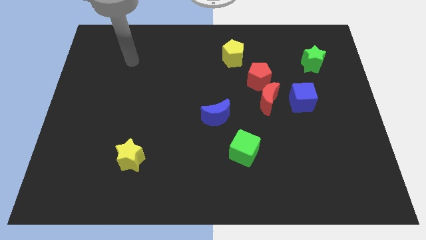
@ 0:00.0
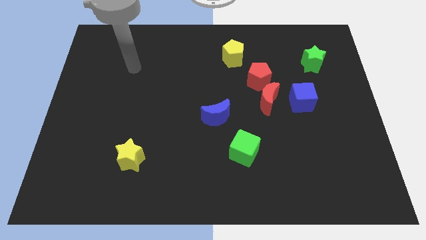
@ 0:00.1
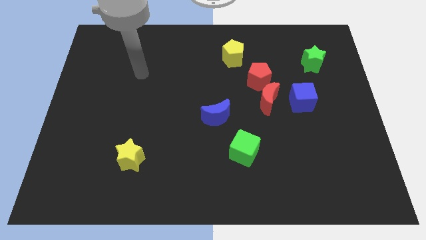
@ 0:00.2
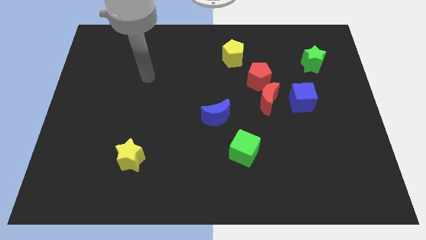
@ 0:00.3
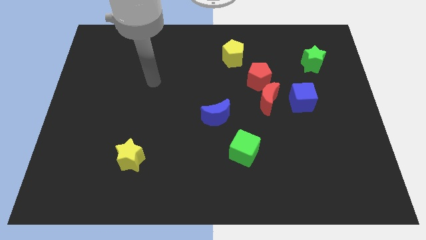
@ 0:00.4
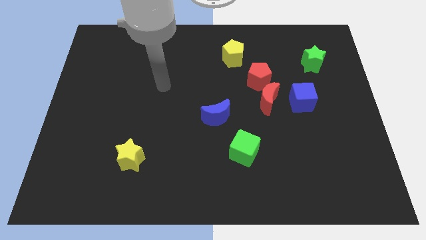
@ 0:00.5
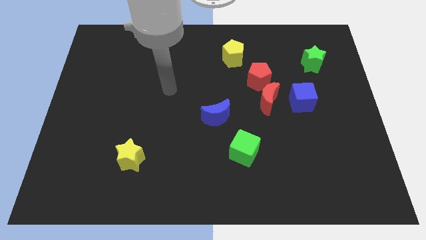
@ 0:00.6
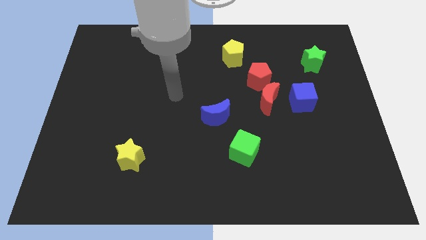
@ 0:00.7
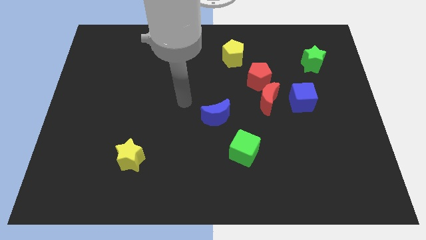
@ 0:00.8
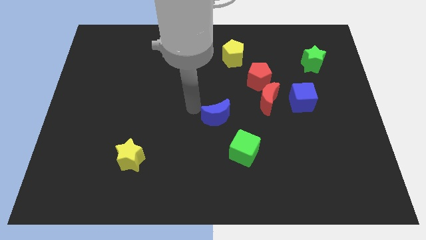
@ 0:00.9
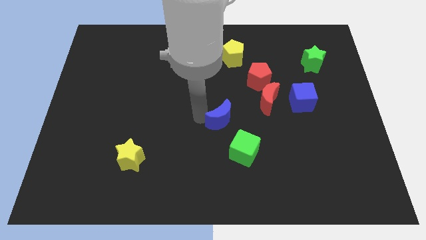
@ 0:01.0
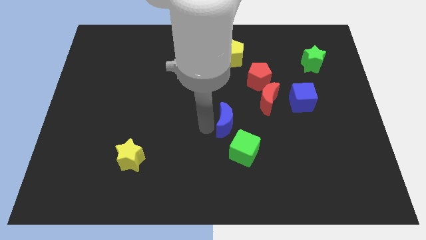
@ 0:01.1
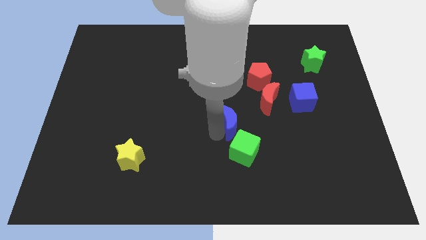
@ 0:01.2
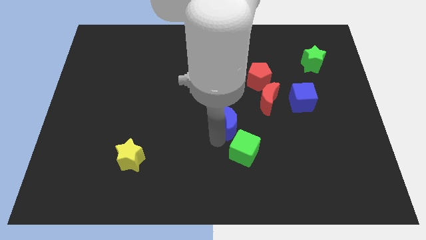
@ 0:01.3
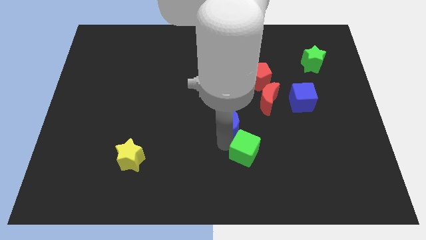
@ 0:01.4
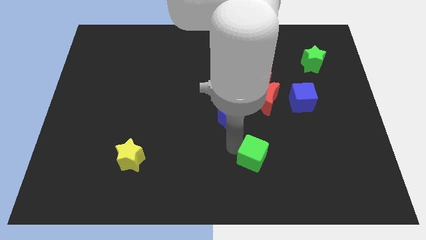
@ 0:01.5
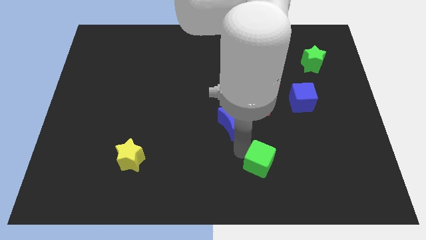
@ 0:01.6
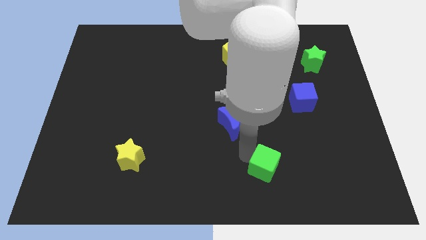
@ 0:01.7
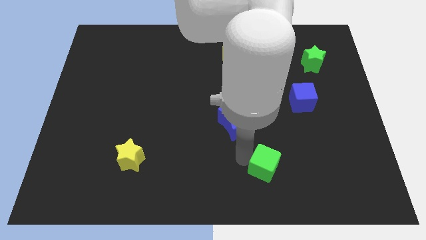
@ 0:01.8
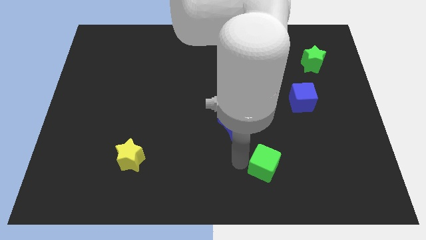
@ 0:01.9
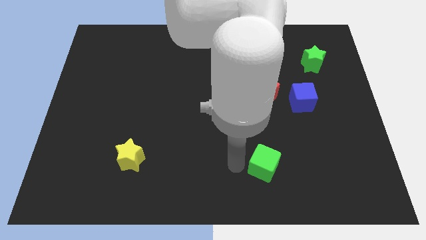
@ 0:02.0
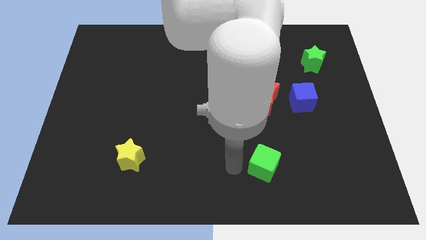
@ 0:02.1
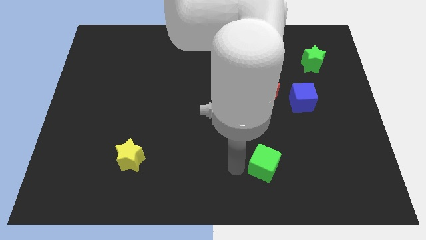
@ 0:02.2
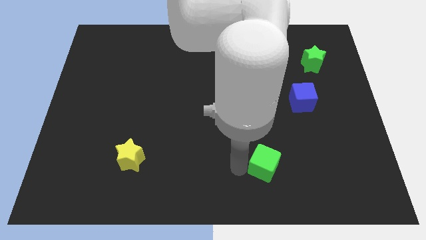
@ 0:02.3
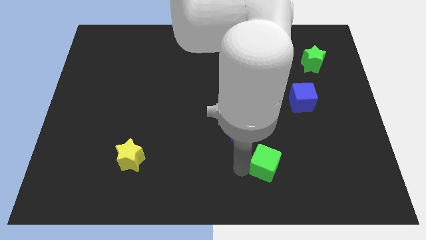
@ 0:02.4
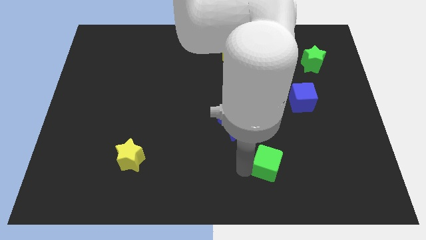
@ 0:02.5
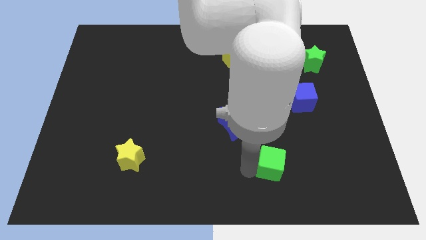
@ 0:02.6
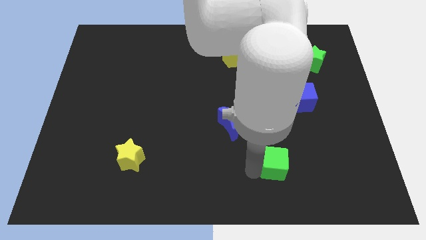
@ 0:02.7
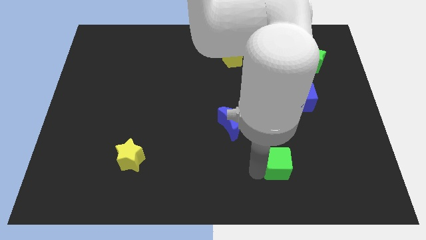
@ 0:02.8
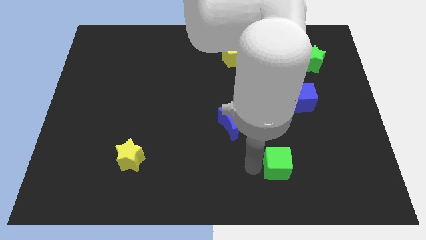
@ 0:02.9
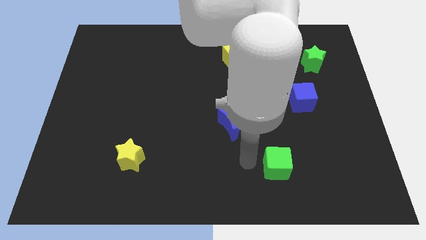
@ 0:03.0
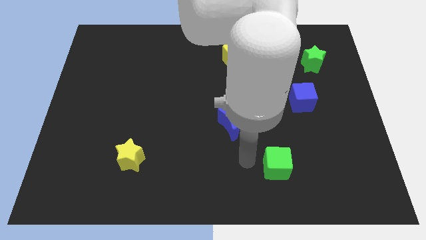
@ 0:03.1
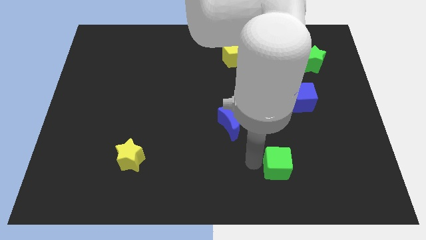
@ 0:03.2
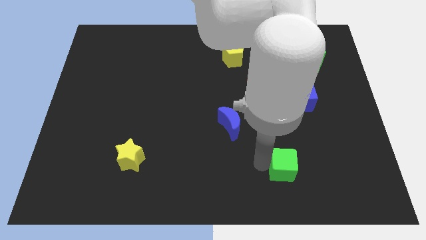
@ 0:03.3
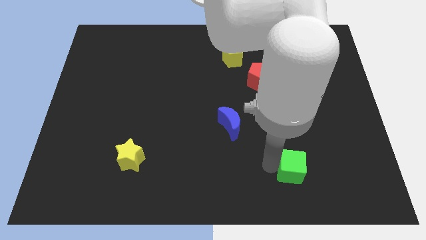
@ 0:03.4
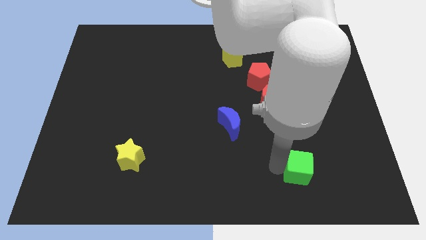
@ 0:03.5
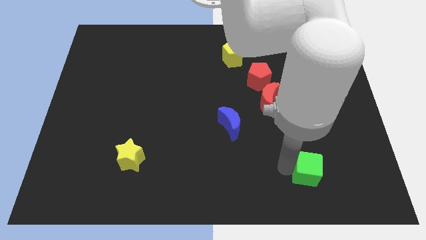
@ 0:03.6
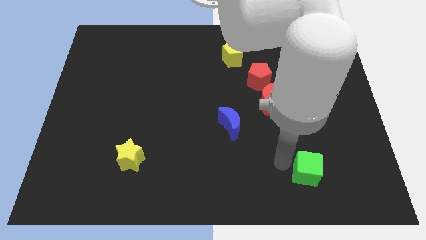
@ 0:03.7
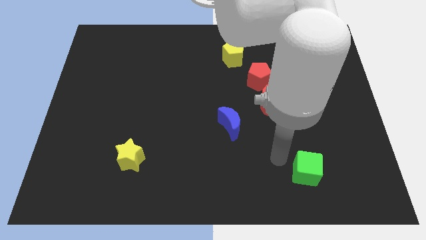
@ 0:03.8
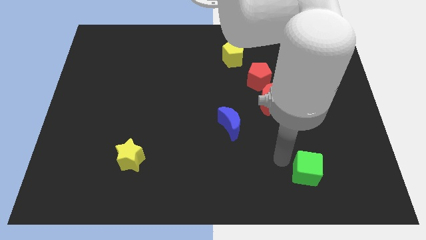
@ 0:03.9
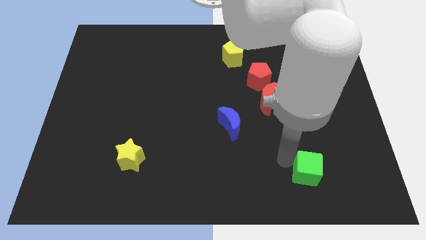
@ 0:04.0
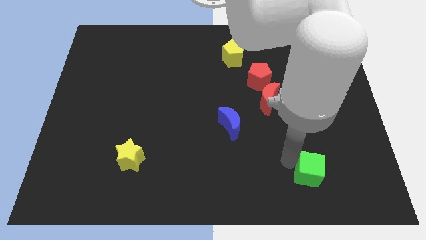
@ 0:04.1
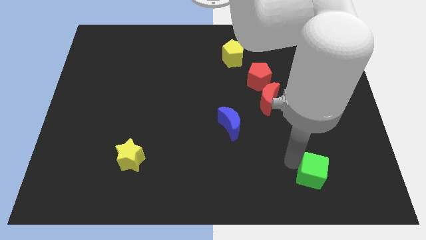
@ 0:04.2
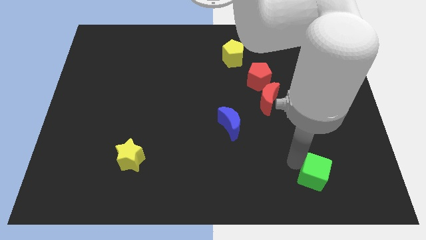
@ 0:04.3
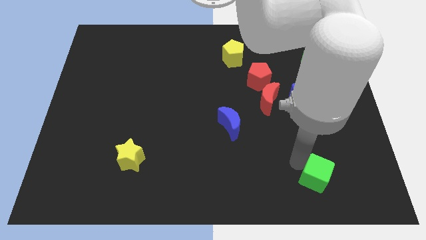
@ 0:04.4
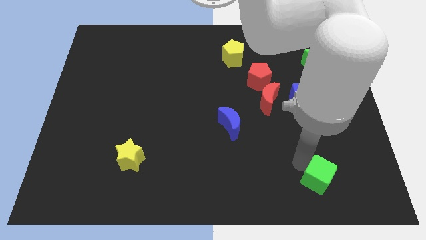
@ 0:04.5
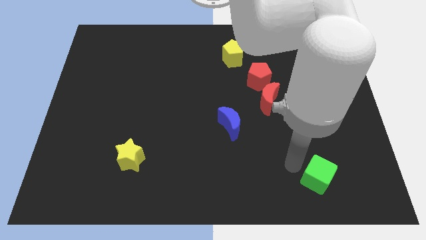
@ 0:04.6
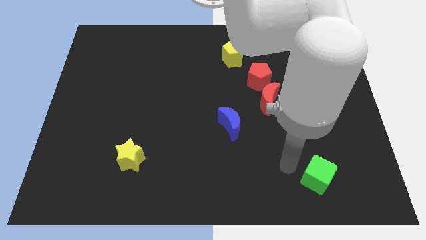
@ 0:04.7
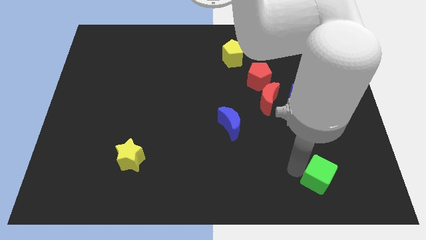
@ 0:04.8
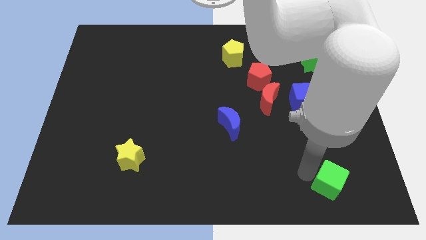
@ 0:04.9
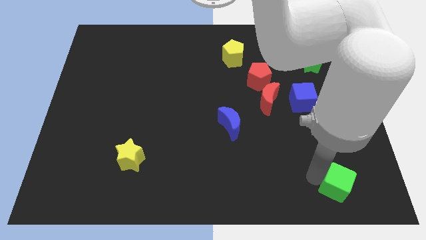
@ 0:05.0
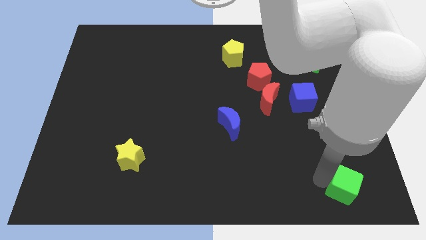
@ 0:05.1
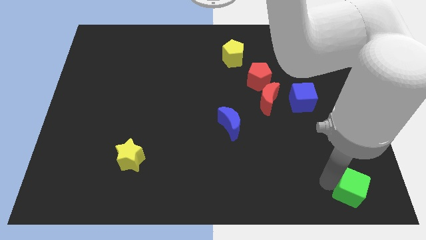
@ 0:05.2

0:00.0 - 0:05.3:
push the green cube to the bottom right

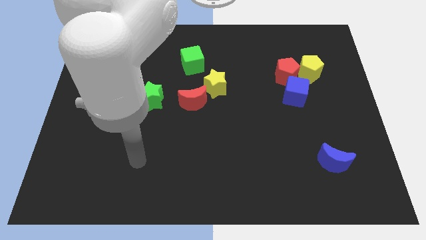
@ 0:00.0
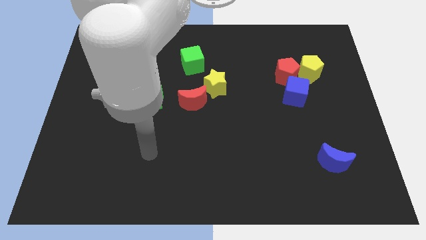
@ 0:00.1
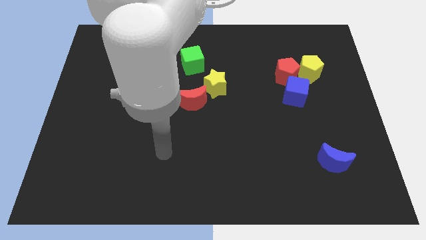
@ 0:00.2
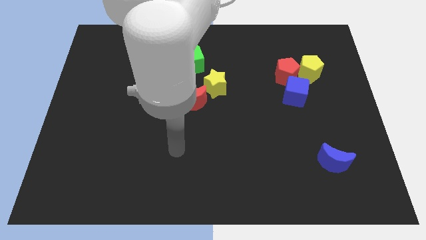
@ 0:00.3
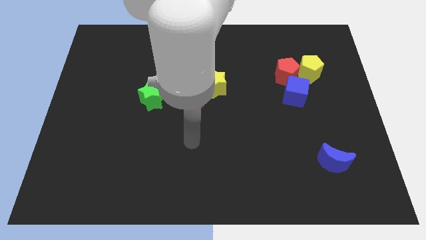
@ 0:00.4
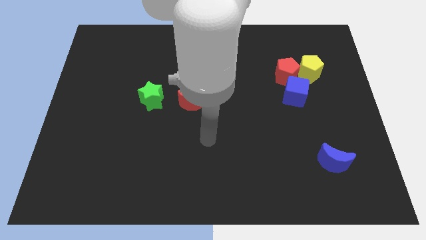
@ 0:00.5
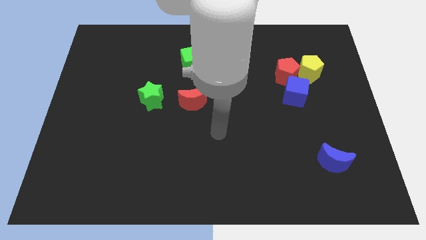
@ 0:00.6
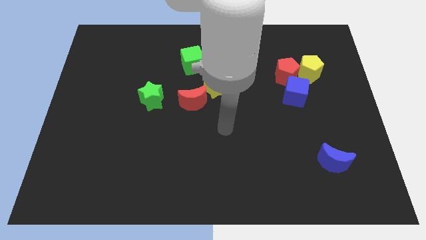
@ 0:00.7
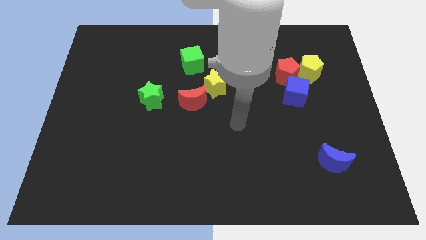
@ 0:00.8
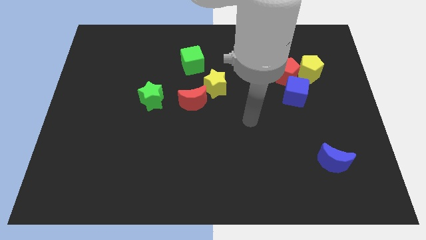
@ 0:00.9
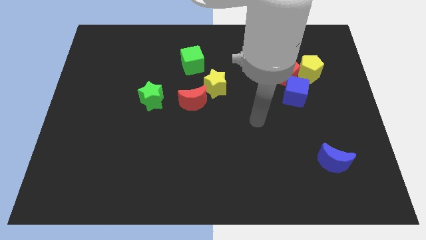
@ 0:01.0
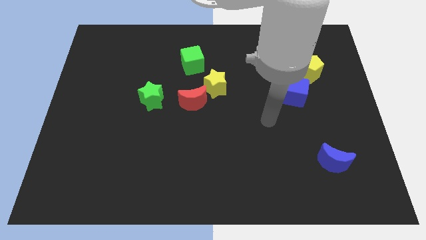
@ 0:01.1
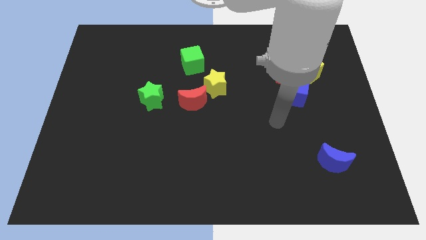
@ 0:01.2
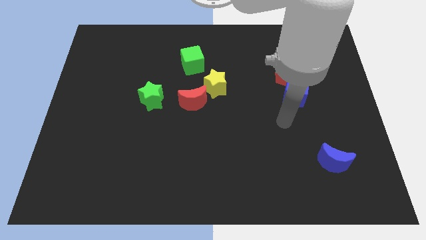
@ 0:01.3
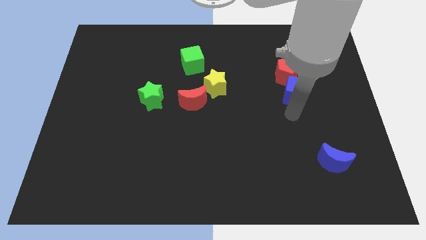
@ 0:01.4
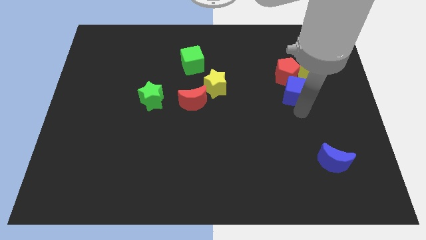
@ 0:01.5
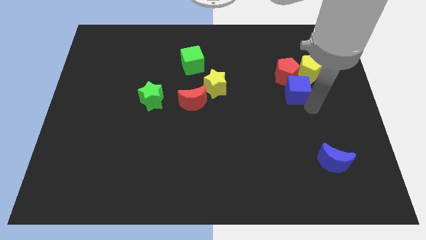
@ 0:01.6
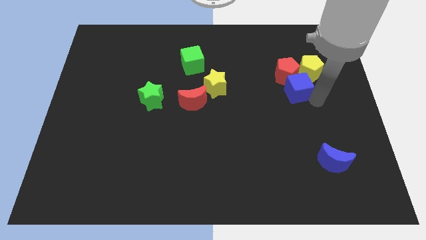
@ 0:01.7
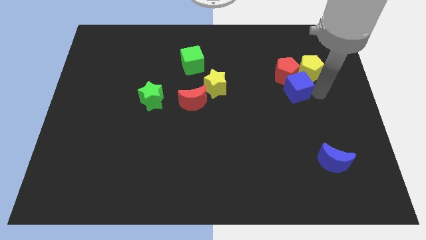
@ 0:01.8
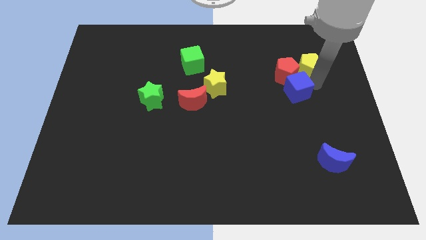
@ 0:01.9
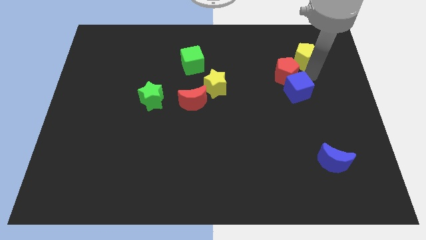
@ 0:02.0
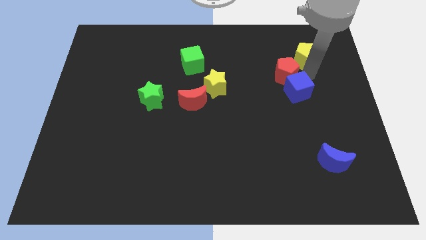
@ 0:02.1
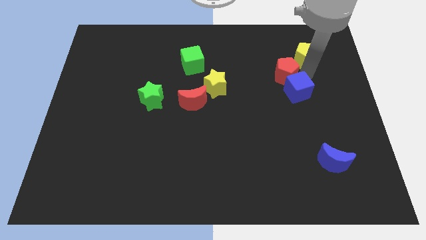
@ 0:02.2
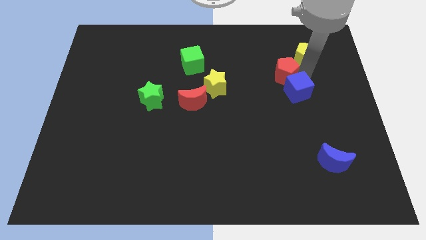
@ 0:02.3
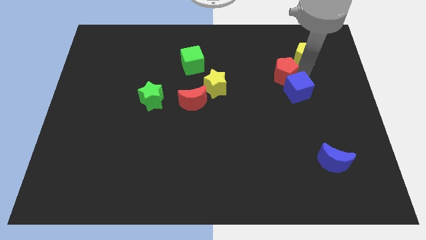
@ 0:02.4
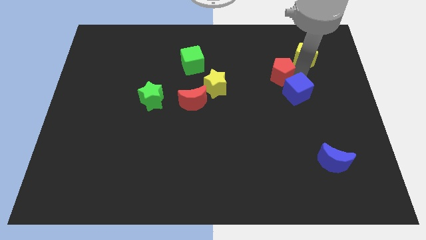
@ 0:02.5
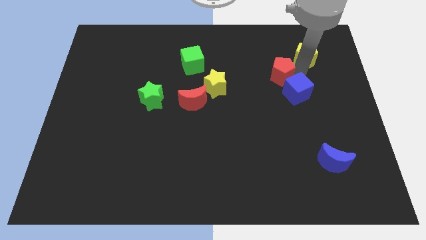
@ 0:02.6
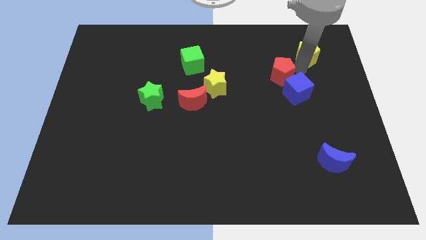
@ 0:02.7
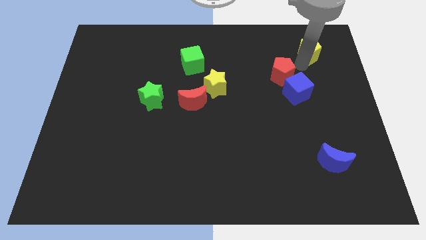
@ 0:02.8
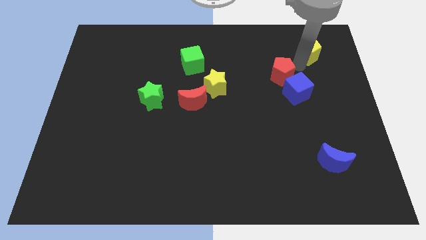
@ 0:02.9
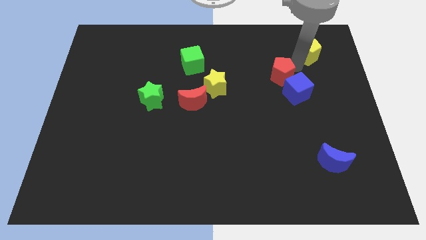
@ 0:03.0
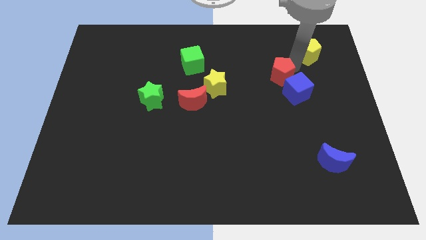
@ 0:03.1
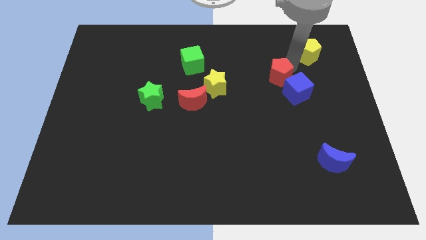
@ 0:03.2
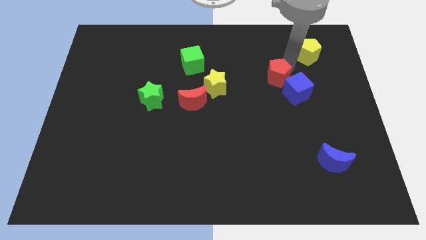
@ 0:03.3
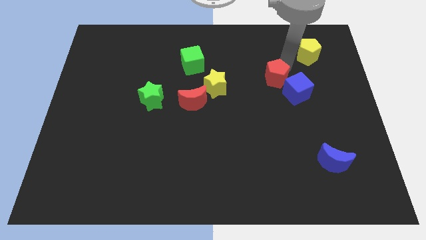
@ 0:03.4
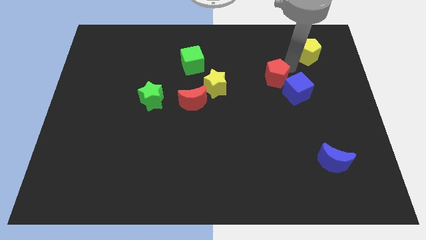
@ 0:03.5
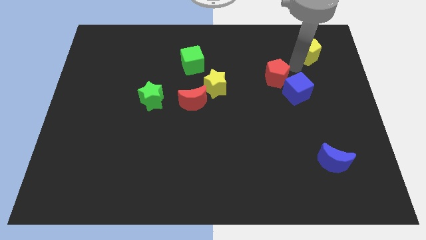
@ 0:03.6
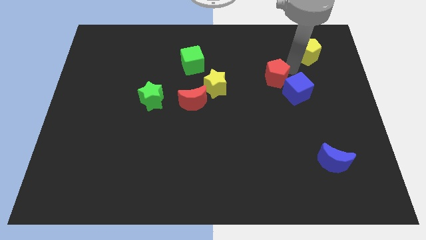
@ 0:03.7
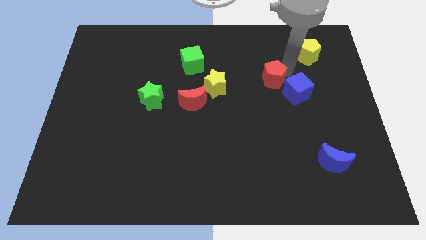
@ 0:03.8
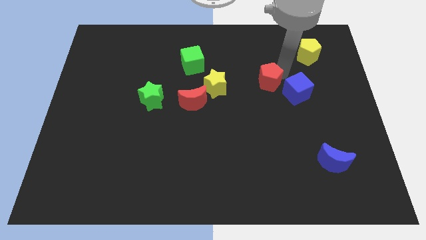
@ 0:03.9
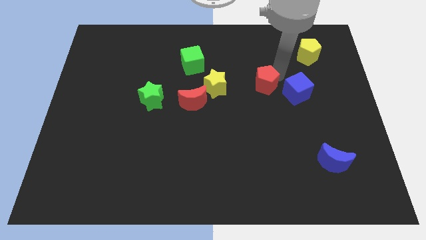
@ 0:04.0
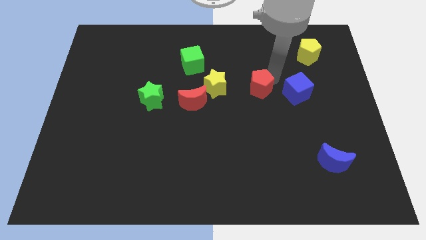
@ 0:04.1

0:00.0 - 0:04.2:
move the red pentagon to the center of the board
